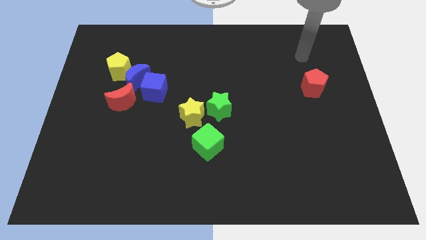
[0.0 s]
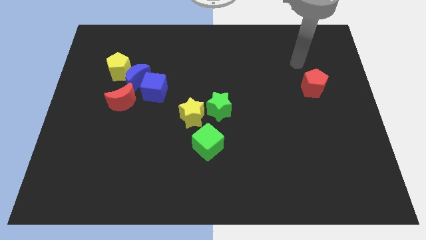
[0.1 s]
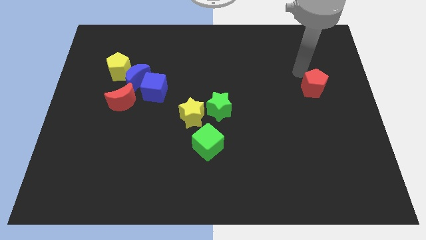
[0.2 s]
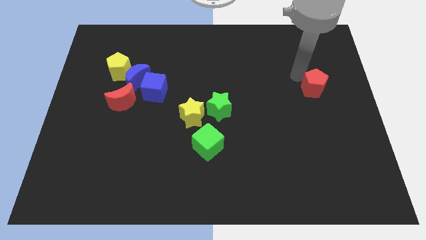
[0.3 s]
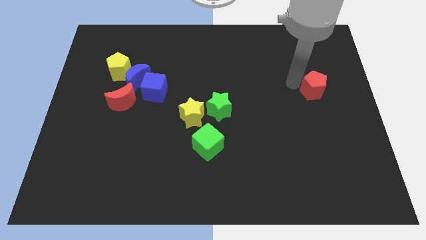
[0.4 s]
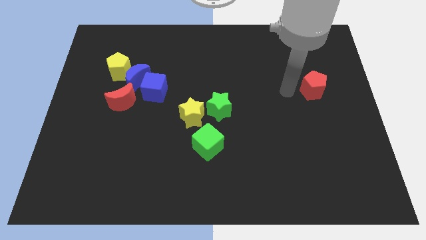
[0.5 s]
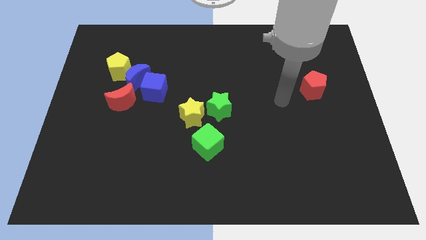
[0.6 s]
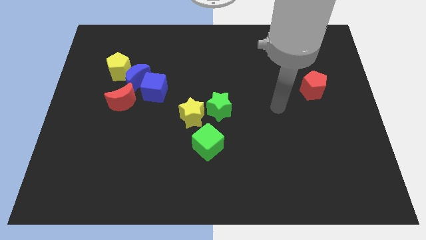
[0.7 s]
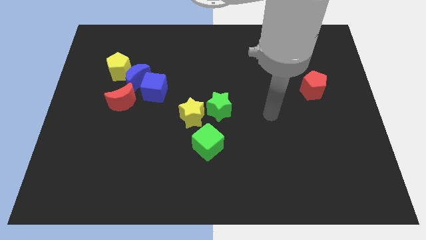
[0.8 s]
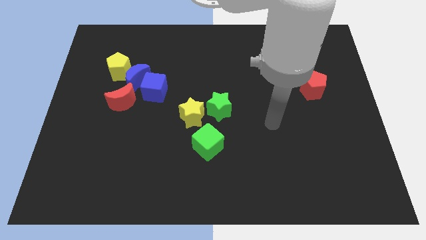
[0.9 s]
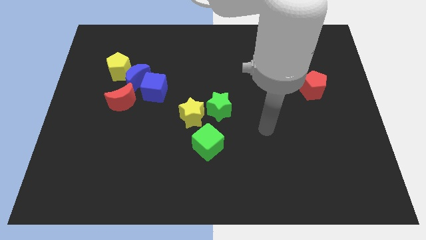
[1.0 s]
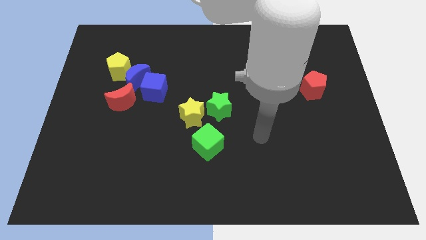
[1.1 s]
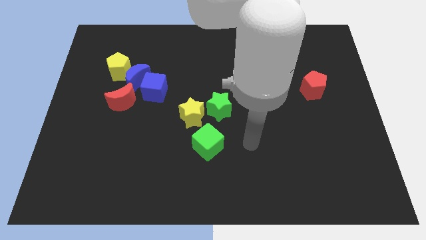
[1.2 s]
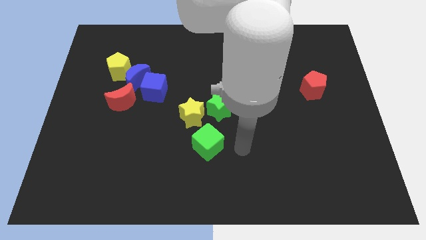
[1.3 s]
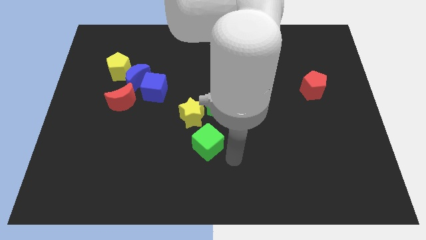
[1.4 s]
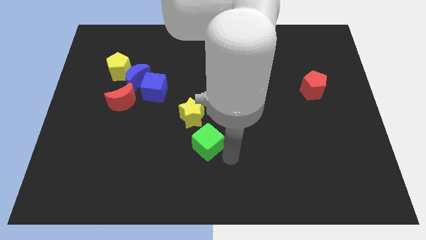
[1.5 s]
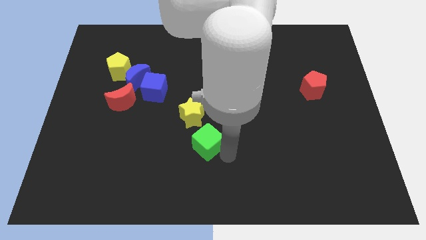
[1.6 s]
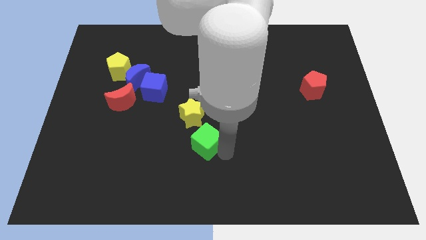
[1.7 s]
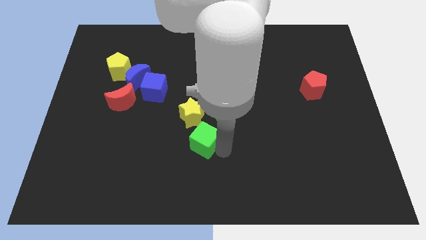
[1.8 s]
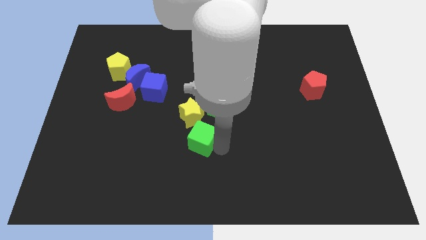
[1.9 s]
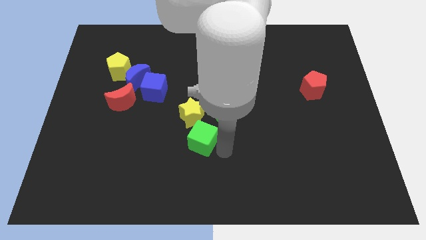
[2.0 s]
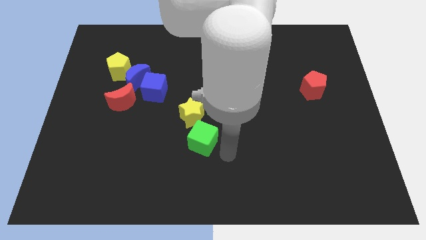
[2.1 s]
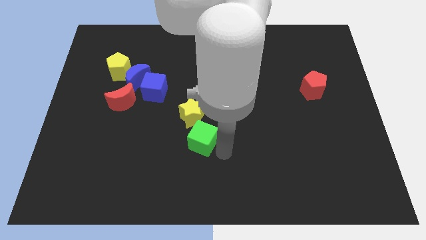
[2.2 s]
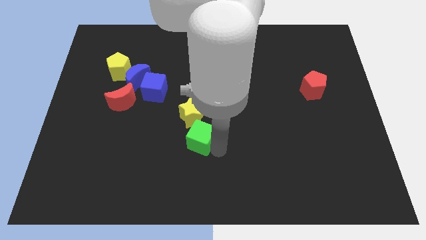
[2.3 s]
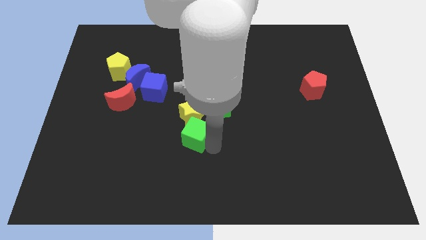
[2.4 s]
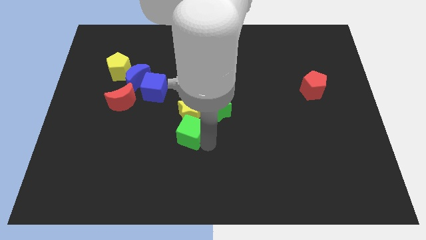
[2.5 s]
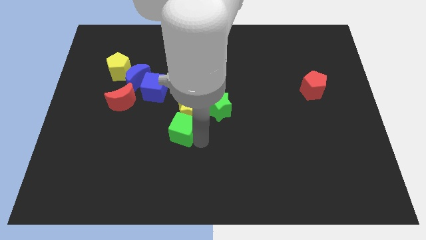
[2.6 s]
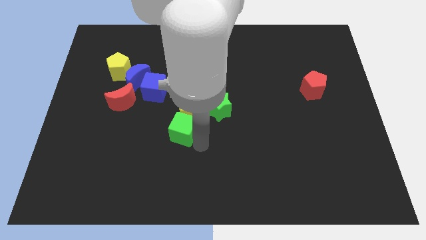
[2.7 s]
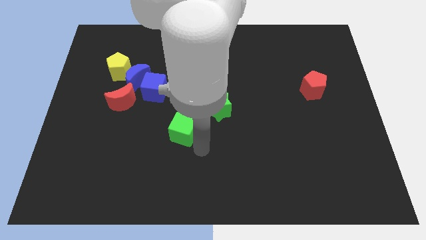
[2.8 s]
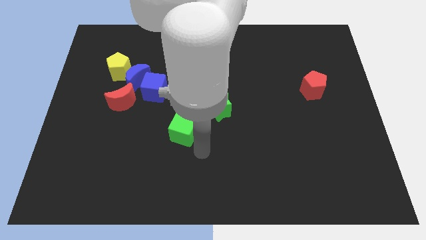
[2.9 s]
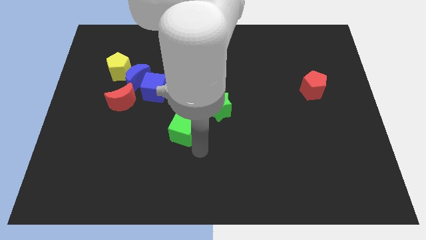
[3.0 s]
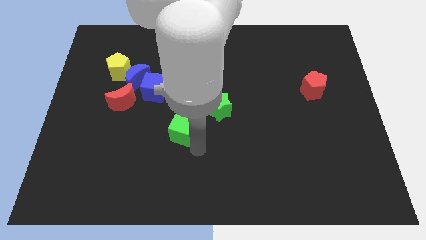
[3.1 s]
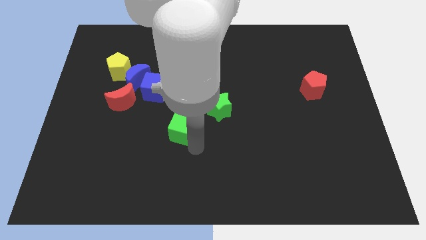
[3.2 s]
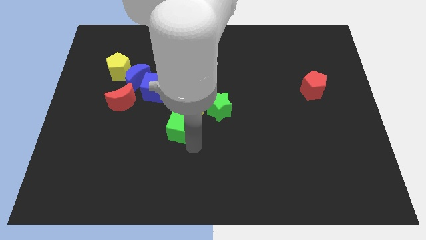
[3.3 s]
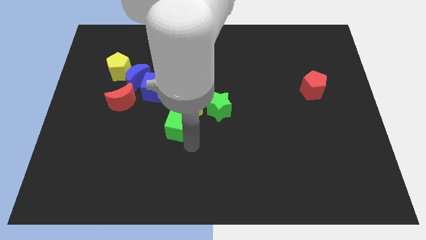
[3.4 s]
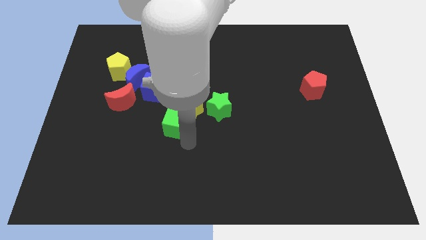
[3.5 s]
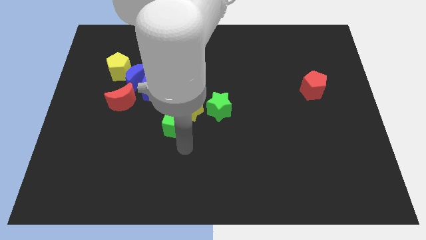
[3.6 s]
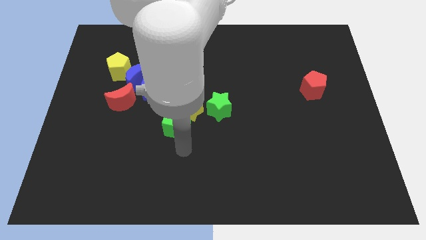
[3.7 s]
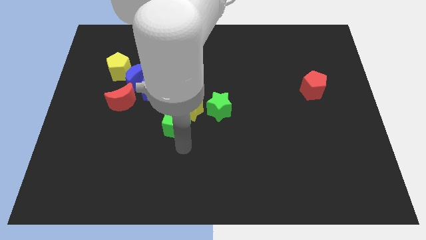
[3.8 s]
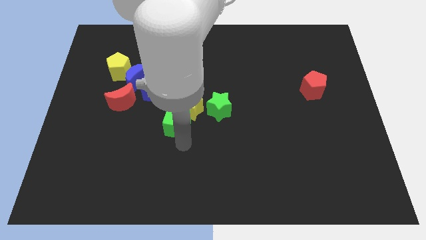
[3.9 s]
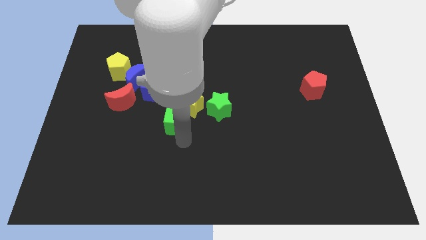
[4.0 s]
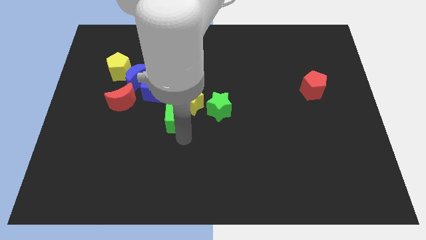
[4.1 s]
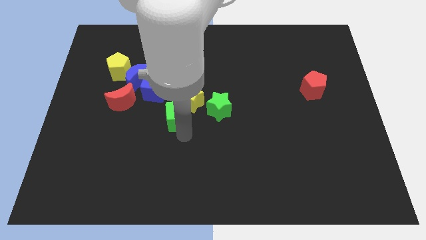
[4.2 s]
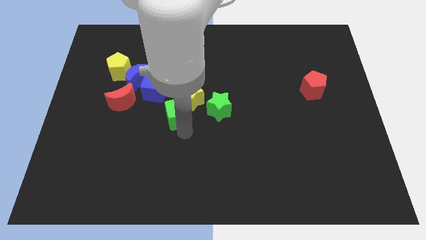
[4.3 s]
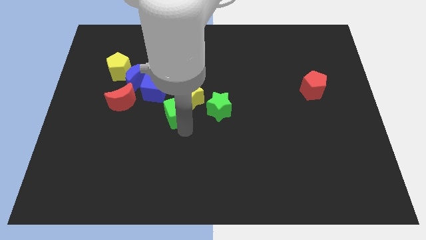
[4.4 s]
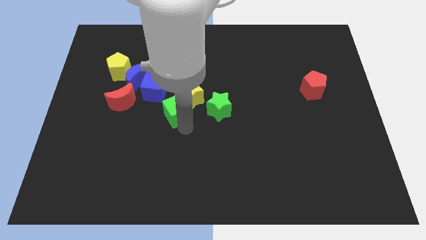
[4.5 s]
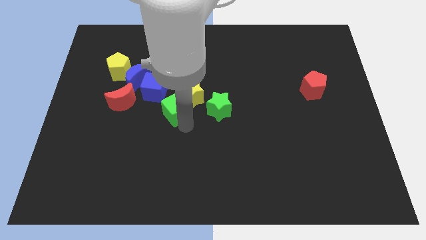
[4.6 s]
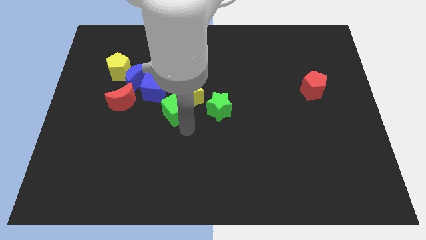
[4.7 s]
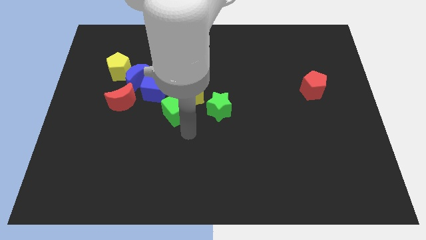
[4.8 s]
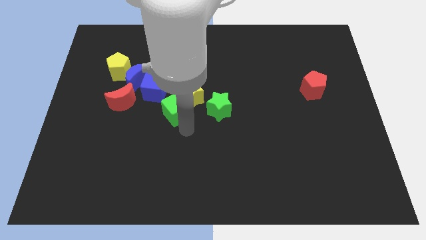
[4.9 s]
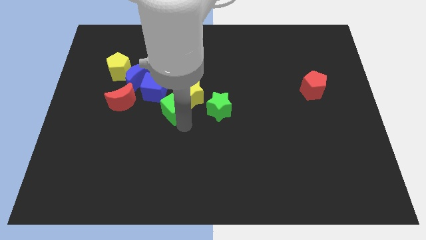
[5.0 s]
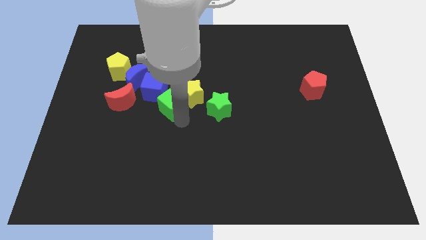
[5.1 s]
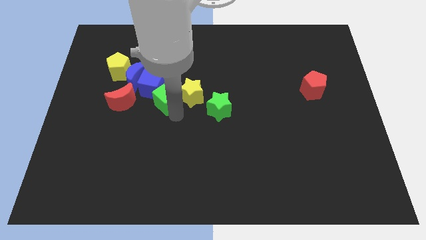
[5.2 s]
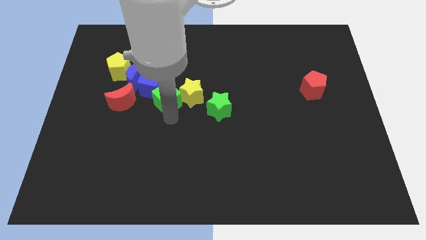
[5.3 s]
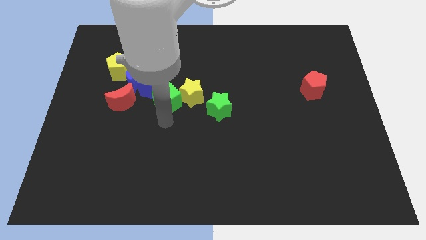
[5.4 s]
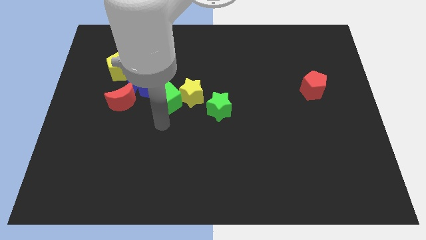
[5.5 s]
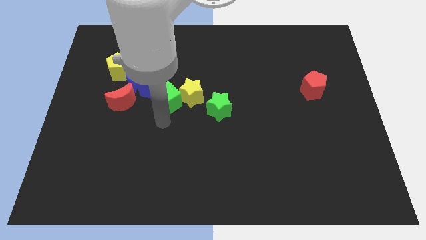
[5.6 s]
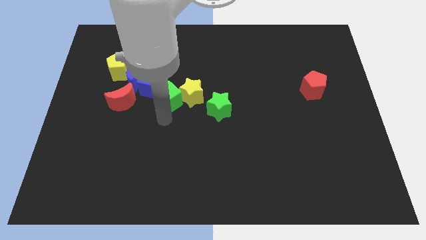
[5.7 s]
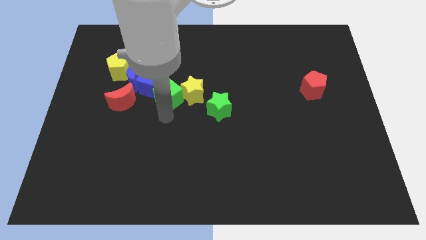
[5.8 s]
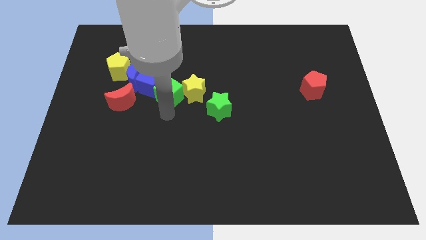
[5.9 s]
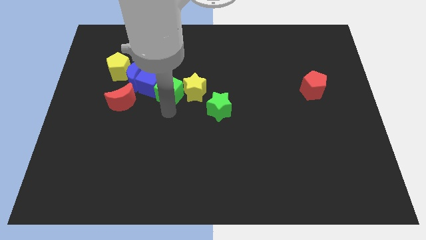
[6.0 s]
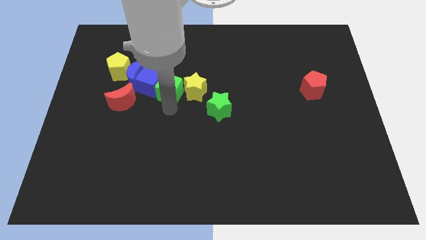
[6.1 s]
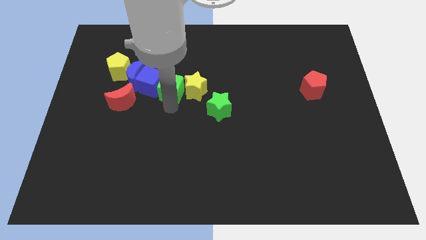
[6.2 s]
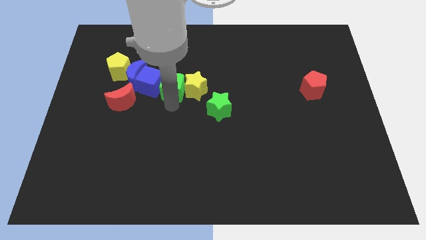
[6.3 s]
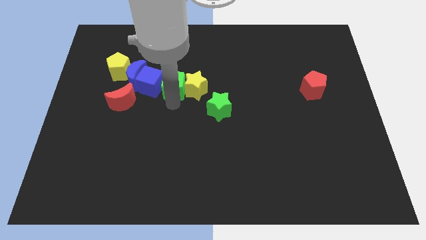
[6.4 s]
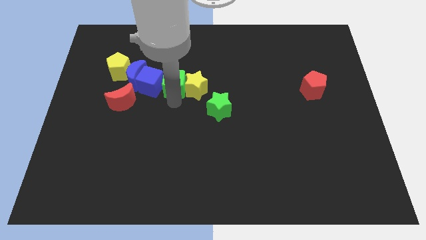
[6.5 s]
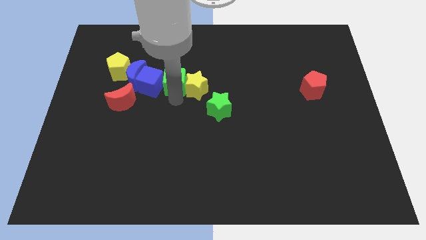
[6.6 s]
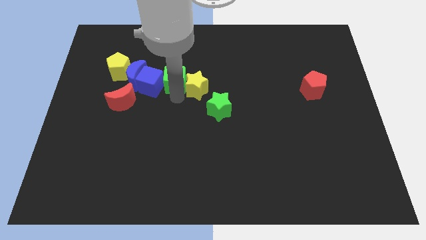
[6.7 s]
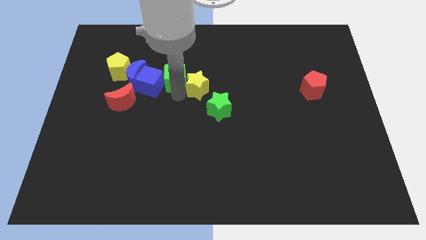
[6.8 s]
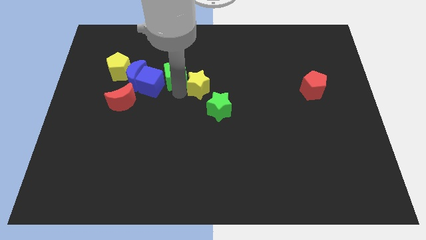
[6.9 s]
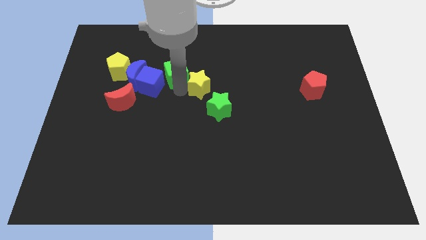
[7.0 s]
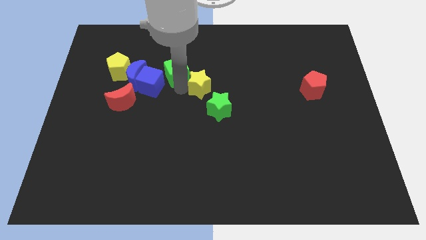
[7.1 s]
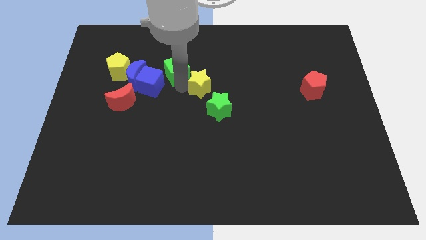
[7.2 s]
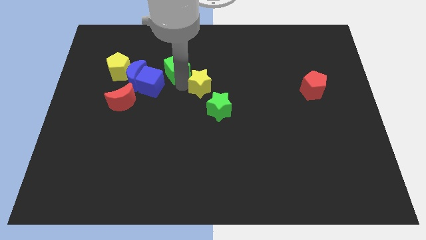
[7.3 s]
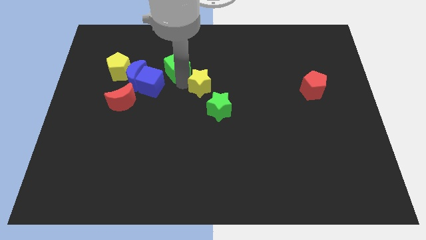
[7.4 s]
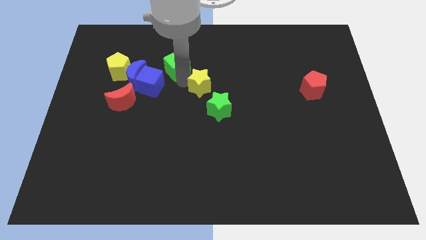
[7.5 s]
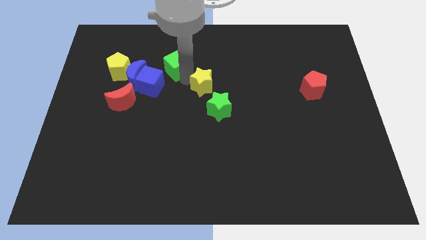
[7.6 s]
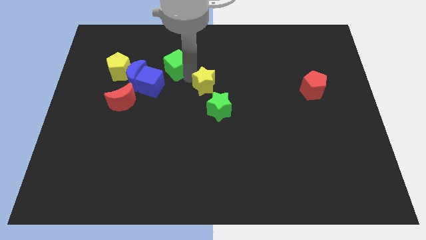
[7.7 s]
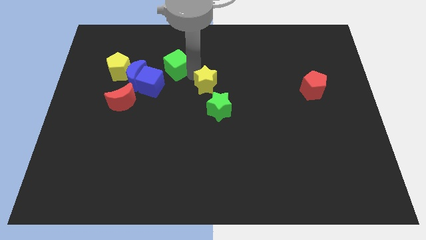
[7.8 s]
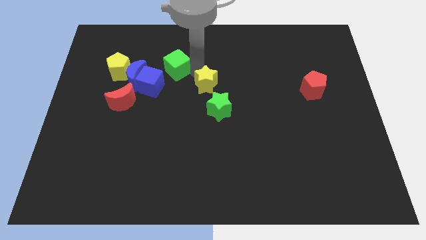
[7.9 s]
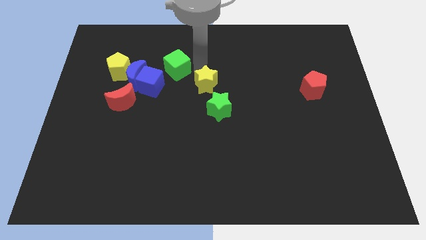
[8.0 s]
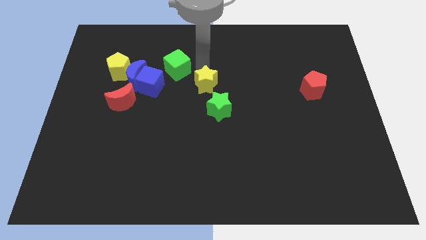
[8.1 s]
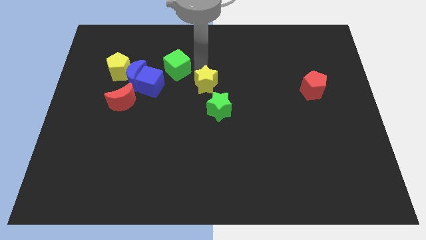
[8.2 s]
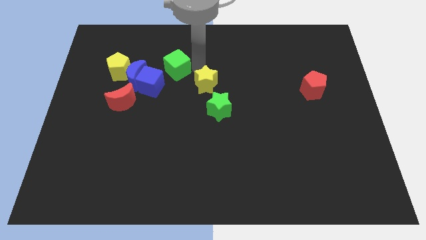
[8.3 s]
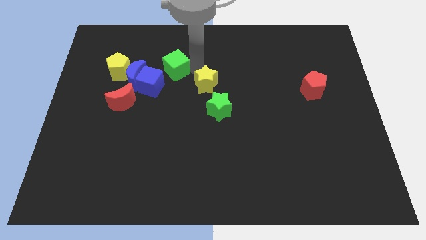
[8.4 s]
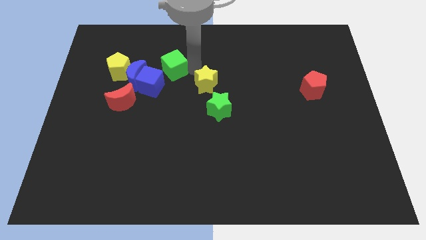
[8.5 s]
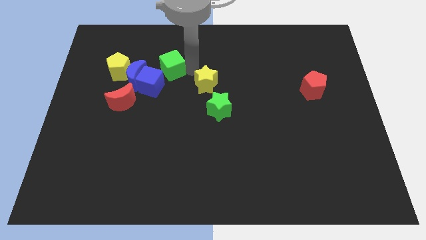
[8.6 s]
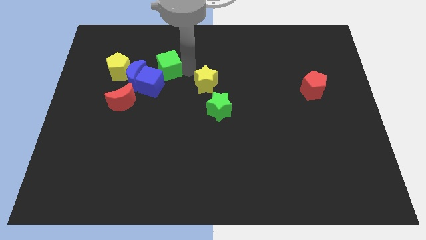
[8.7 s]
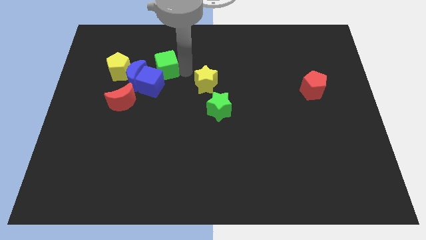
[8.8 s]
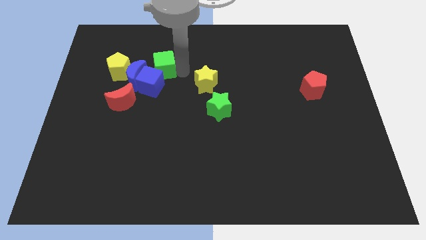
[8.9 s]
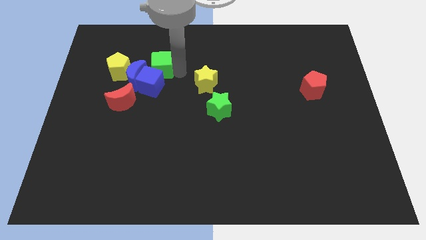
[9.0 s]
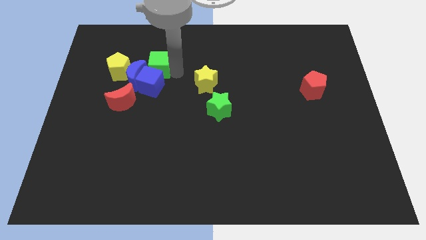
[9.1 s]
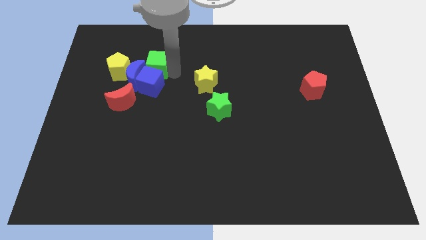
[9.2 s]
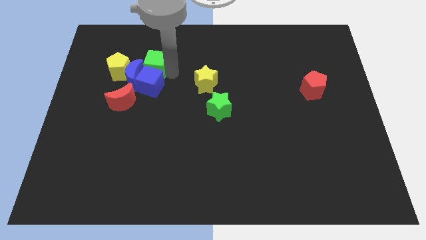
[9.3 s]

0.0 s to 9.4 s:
push the green cube towards the blue moon
